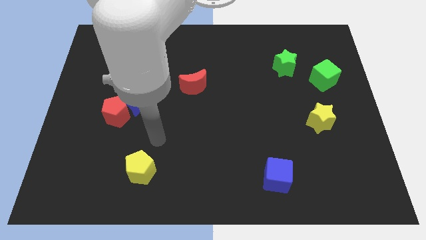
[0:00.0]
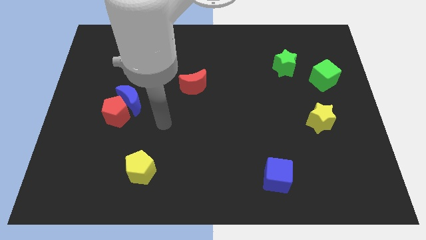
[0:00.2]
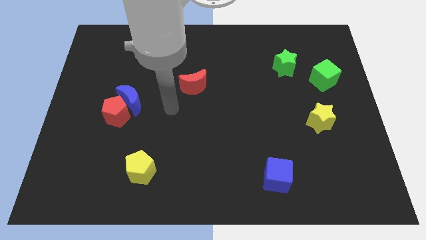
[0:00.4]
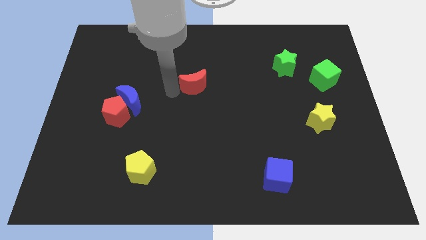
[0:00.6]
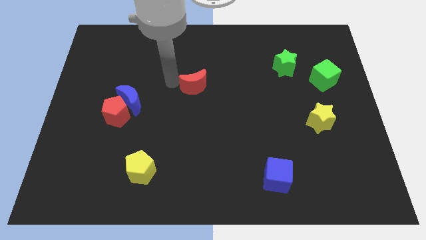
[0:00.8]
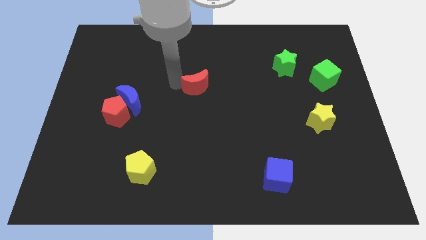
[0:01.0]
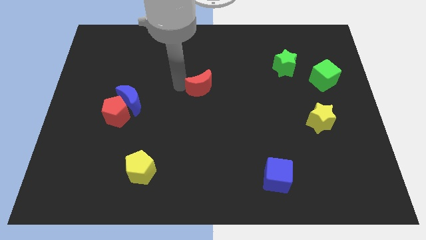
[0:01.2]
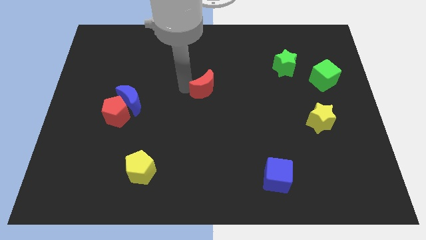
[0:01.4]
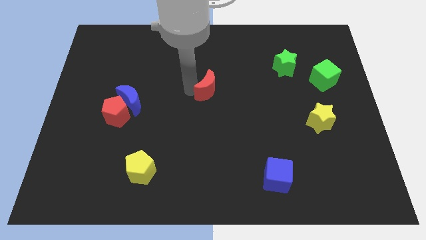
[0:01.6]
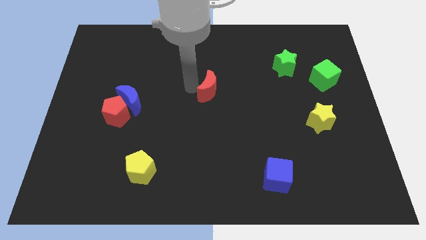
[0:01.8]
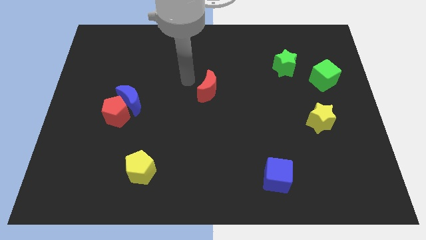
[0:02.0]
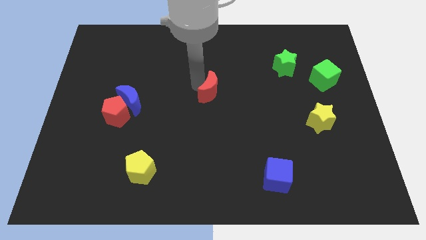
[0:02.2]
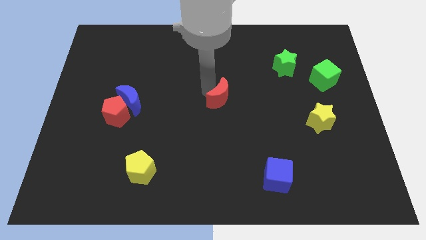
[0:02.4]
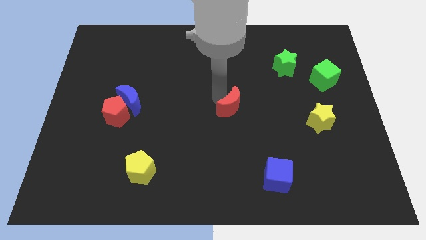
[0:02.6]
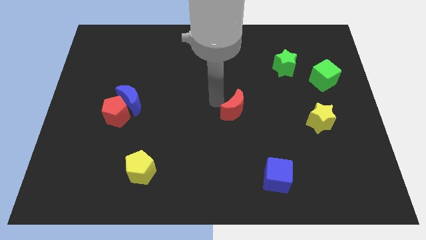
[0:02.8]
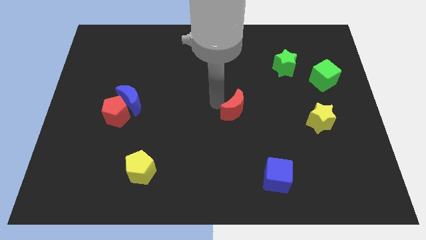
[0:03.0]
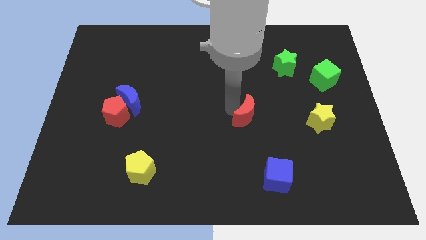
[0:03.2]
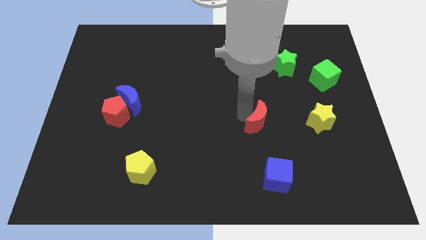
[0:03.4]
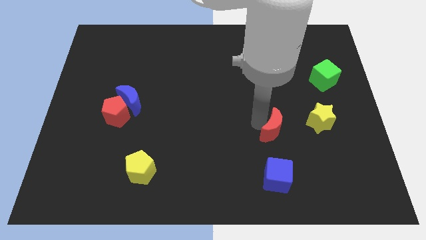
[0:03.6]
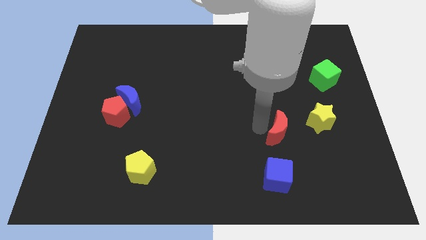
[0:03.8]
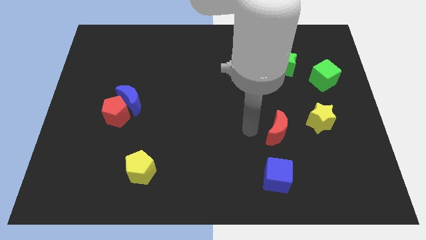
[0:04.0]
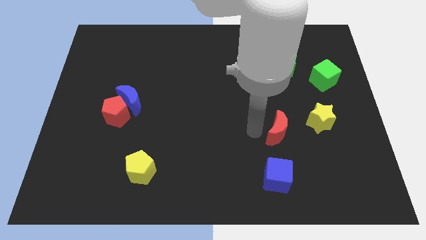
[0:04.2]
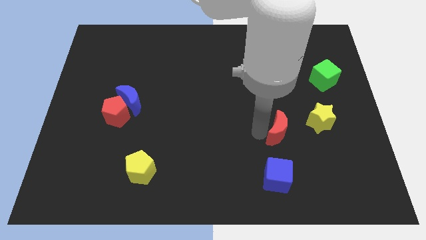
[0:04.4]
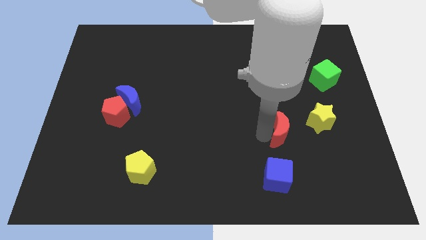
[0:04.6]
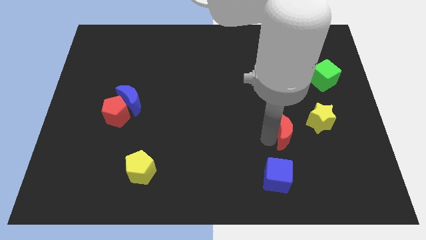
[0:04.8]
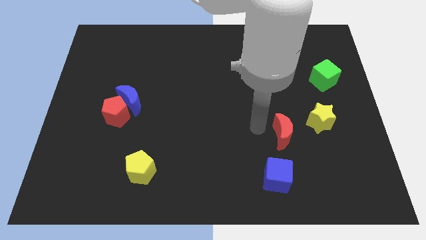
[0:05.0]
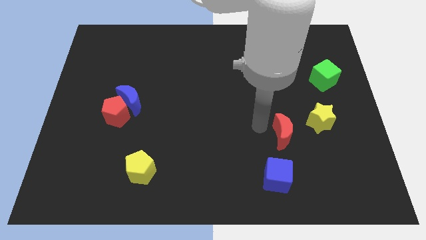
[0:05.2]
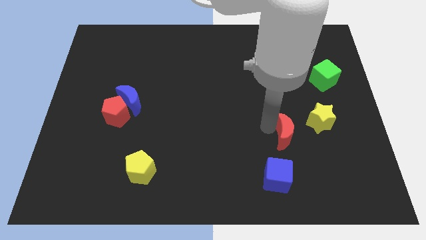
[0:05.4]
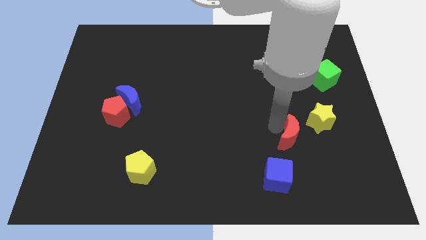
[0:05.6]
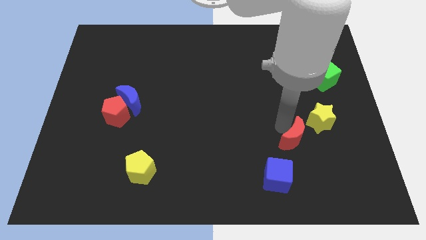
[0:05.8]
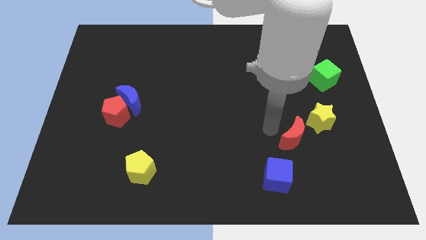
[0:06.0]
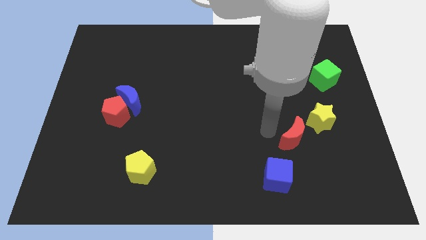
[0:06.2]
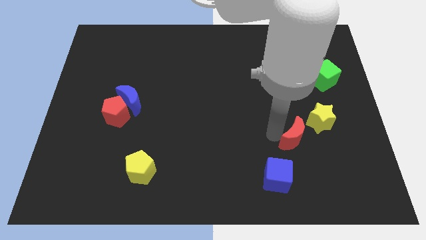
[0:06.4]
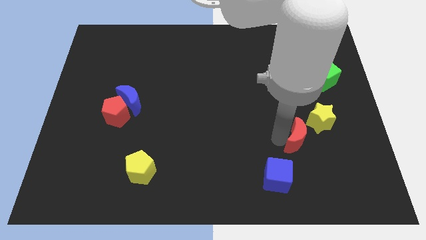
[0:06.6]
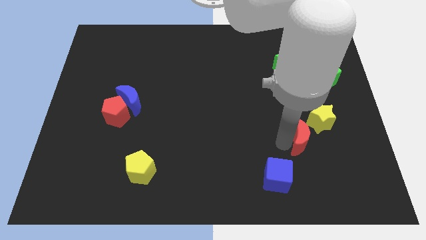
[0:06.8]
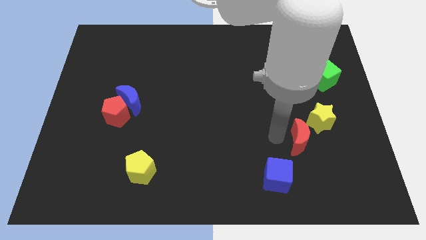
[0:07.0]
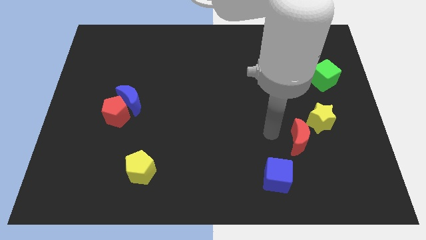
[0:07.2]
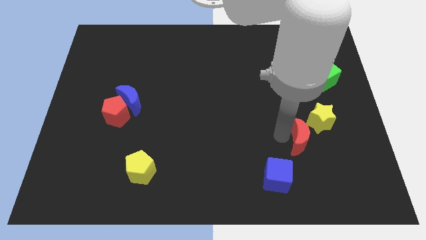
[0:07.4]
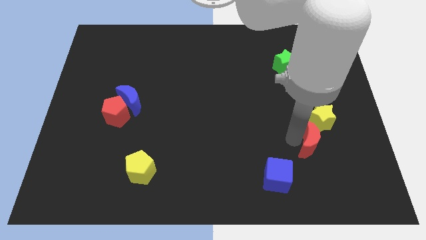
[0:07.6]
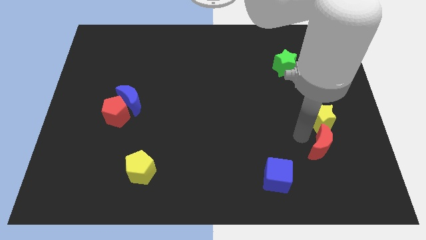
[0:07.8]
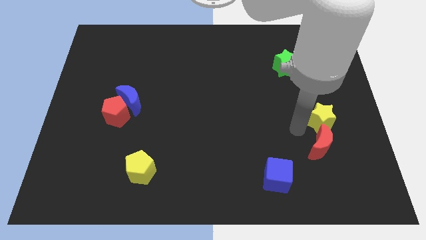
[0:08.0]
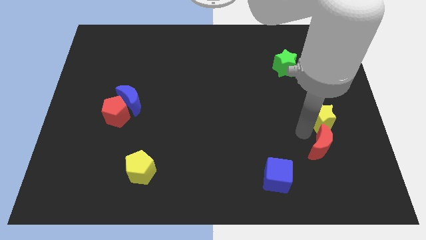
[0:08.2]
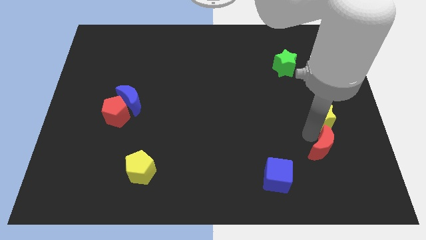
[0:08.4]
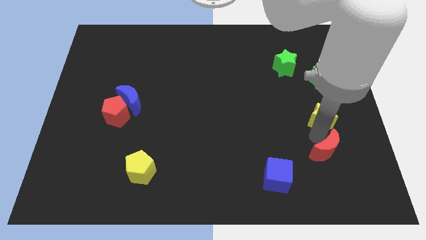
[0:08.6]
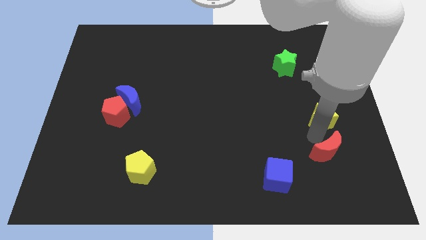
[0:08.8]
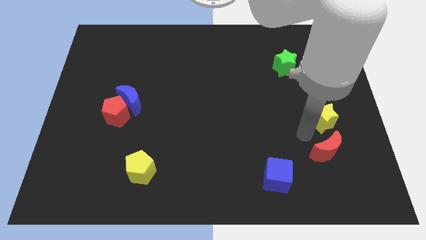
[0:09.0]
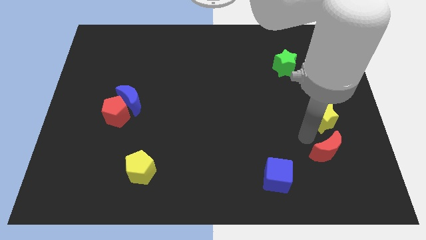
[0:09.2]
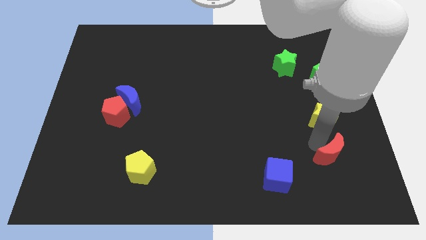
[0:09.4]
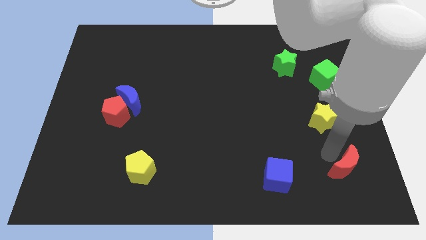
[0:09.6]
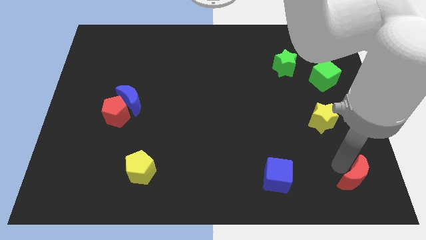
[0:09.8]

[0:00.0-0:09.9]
push the red moon to the lower right corner

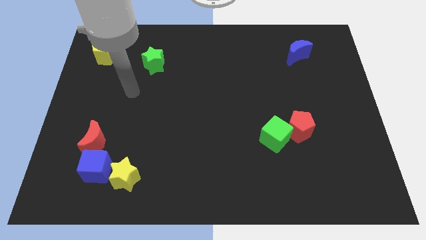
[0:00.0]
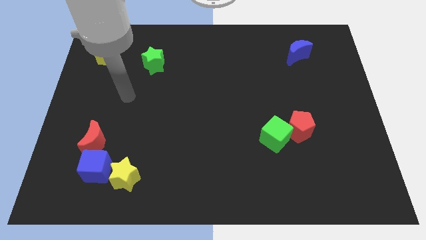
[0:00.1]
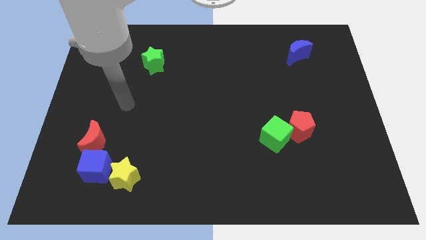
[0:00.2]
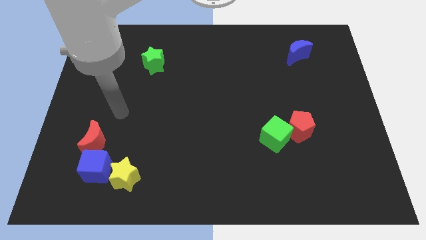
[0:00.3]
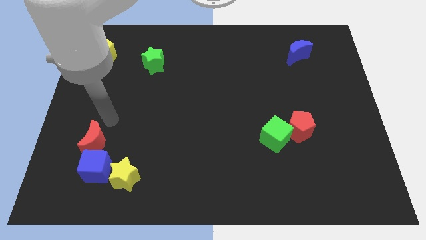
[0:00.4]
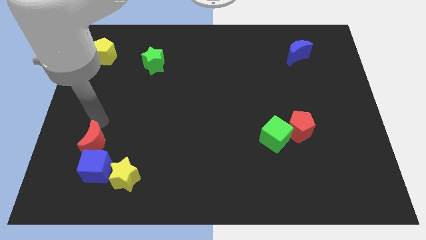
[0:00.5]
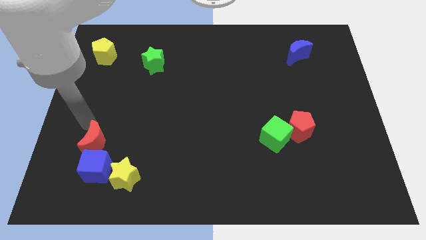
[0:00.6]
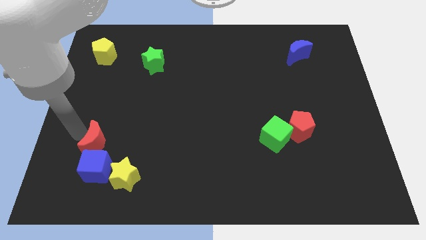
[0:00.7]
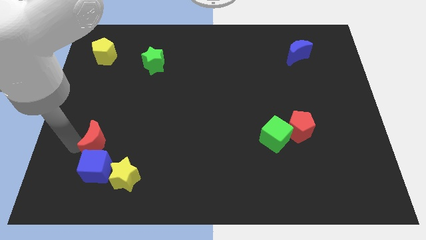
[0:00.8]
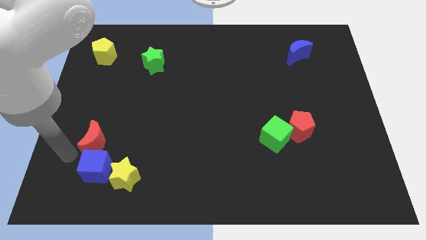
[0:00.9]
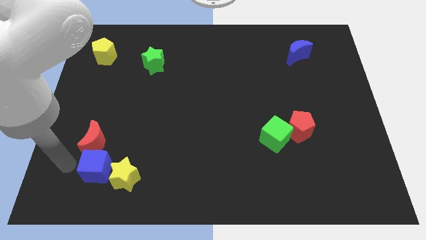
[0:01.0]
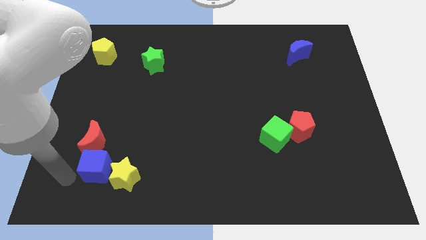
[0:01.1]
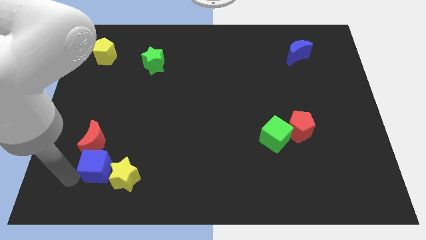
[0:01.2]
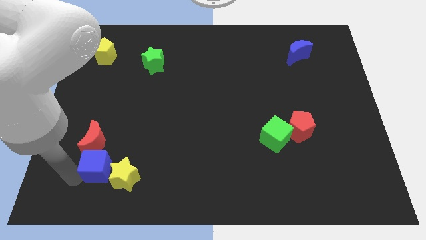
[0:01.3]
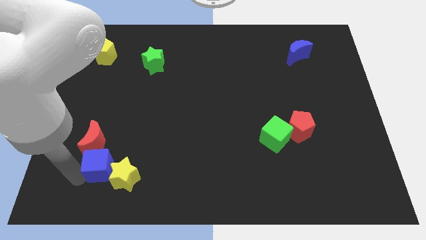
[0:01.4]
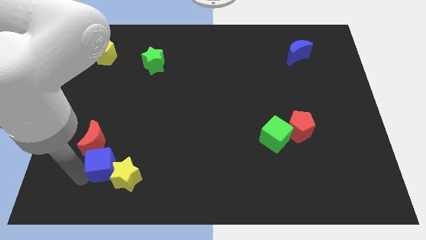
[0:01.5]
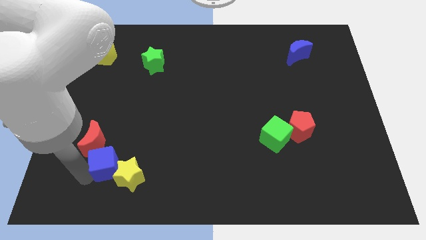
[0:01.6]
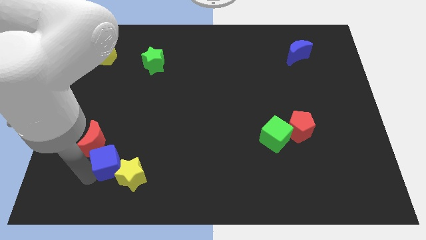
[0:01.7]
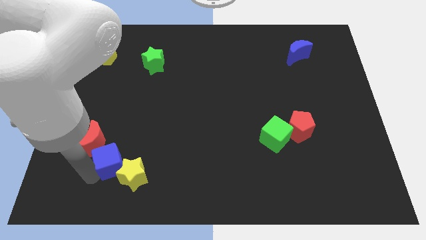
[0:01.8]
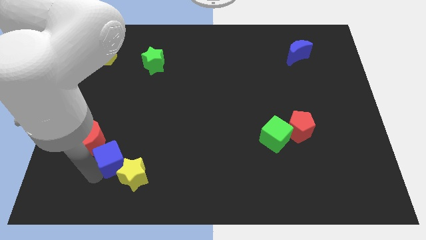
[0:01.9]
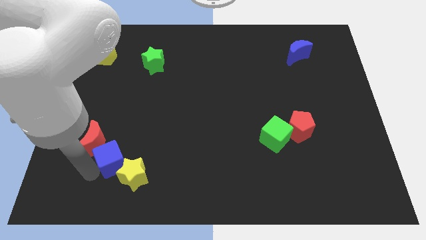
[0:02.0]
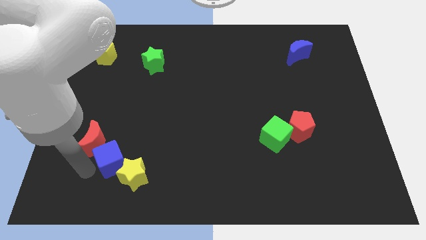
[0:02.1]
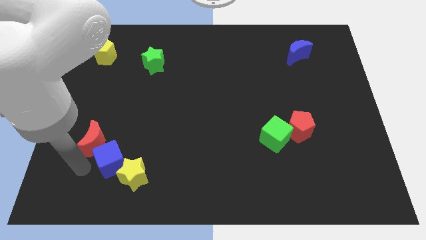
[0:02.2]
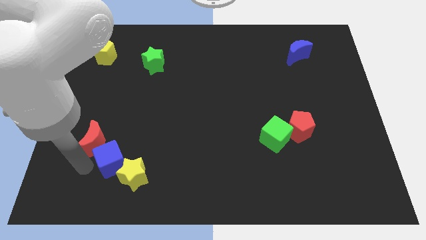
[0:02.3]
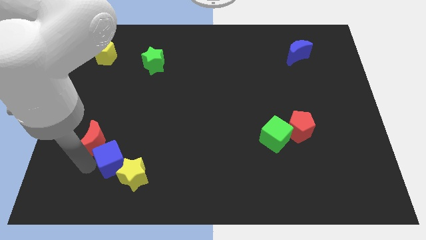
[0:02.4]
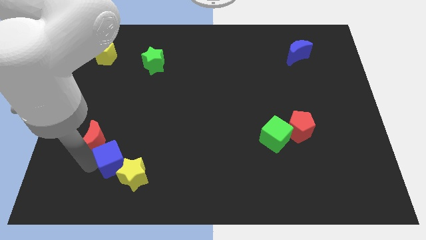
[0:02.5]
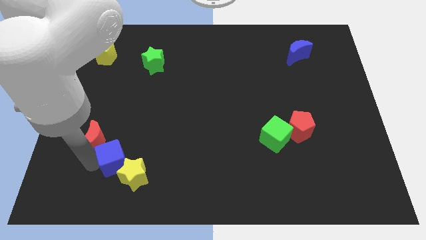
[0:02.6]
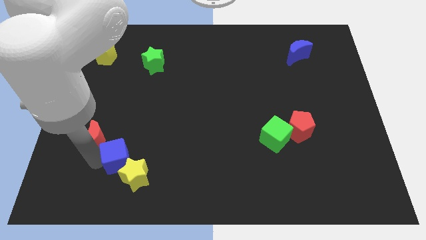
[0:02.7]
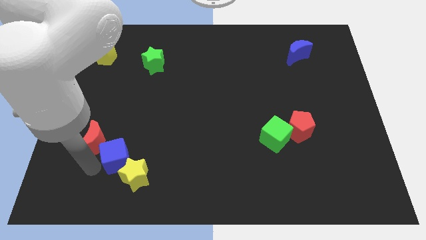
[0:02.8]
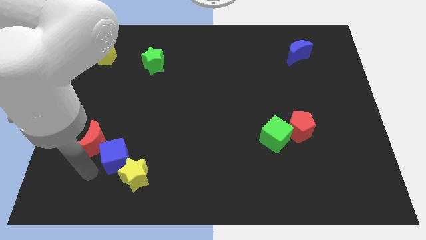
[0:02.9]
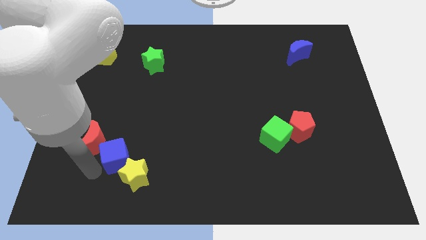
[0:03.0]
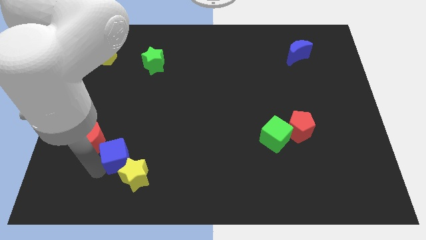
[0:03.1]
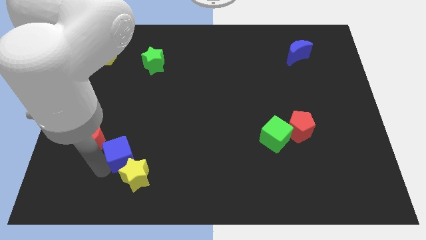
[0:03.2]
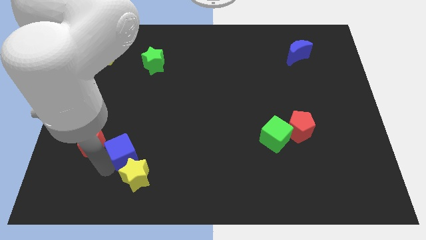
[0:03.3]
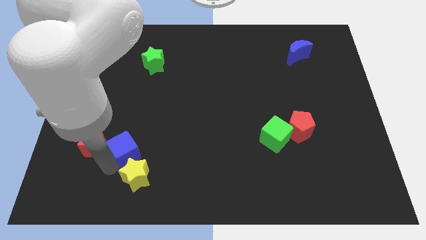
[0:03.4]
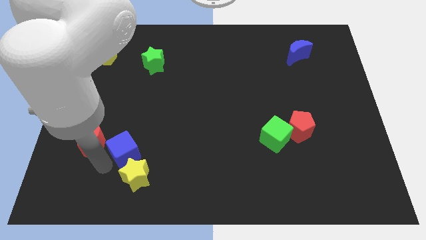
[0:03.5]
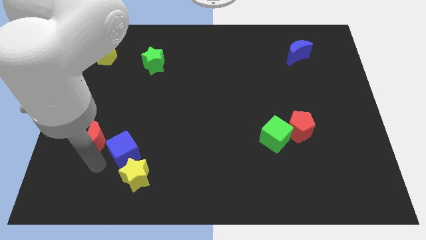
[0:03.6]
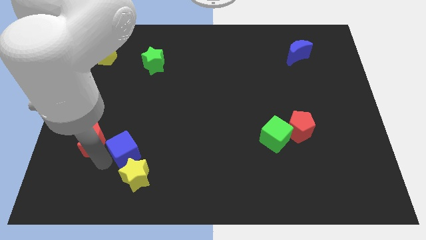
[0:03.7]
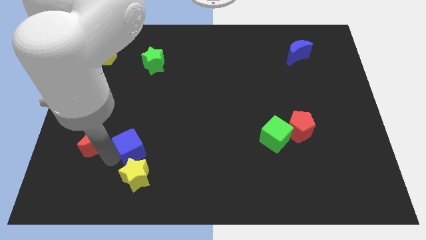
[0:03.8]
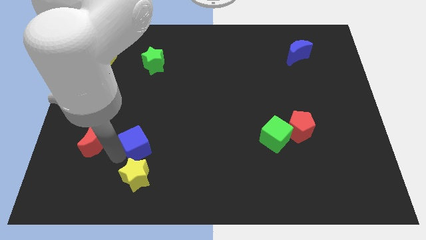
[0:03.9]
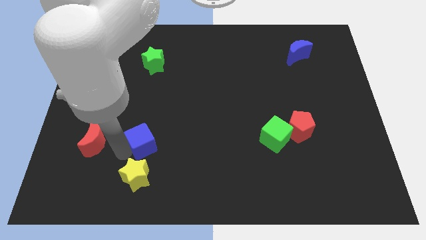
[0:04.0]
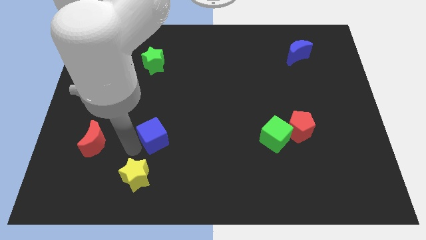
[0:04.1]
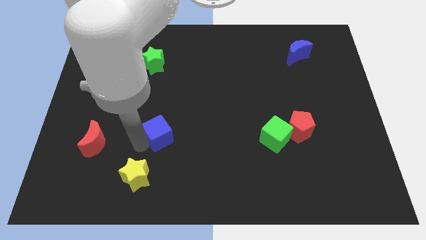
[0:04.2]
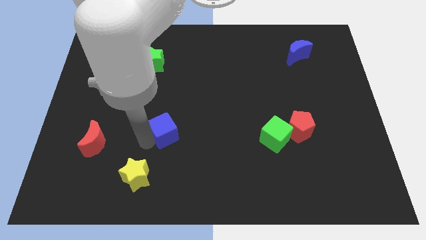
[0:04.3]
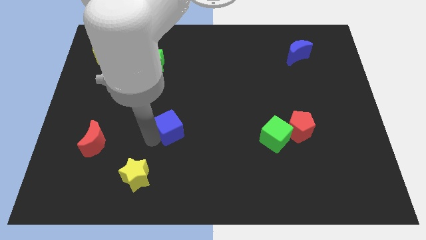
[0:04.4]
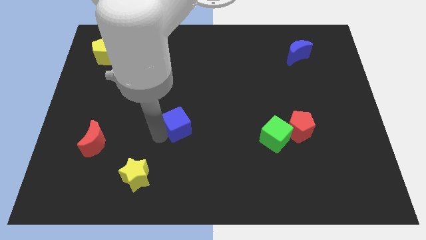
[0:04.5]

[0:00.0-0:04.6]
push the blue cube to the middle
